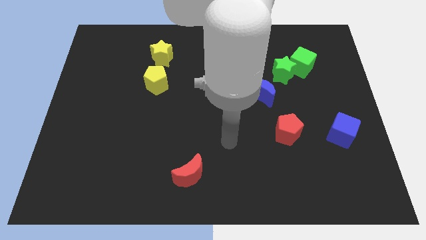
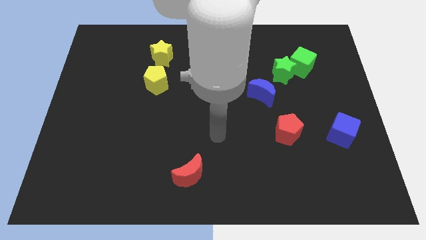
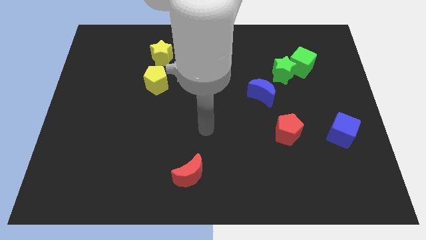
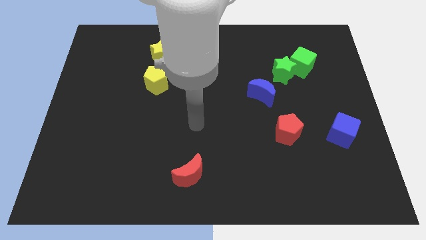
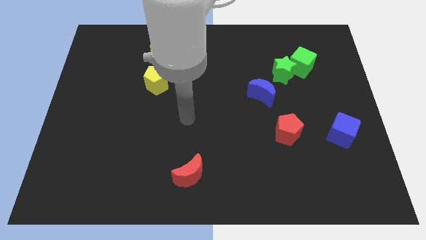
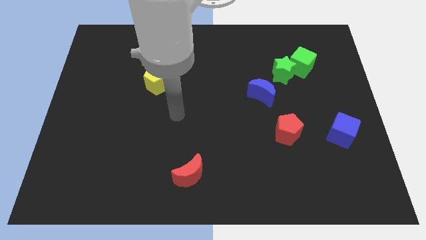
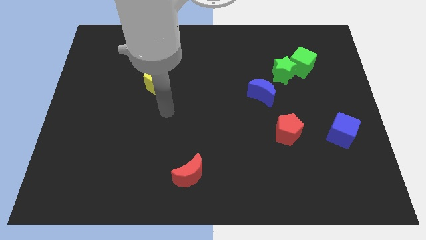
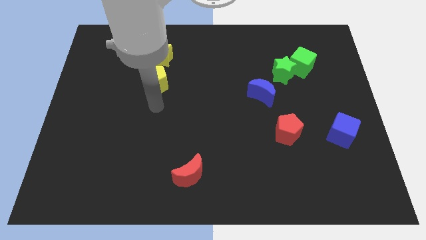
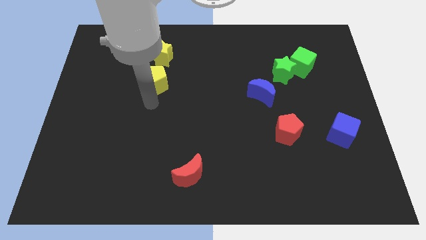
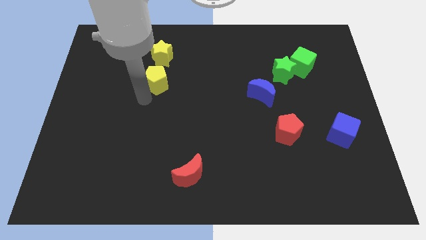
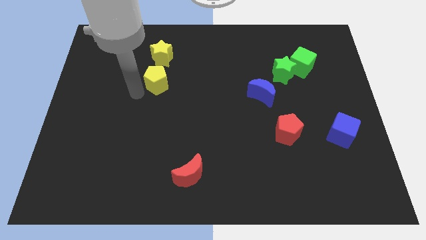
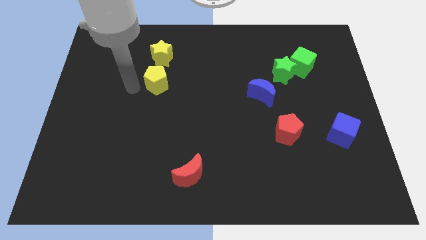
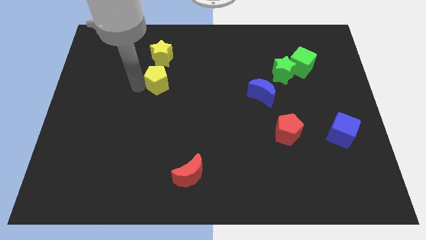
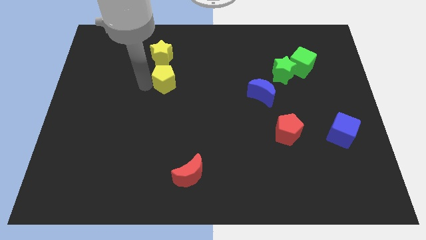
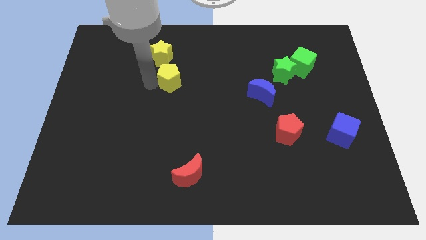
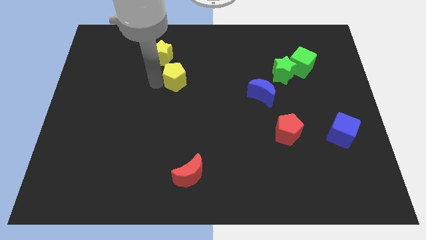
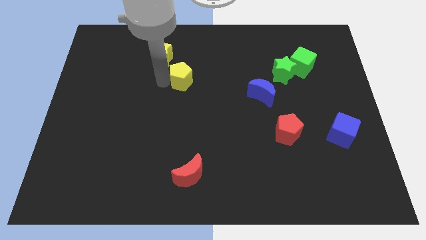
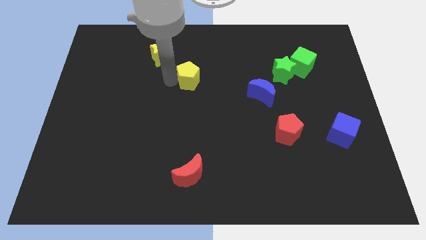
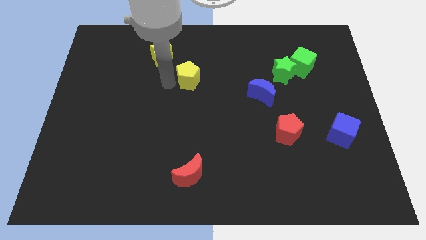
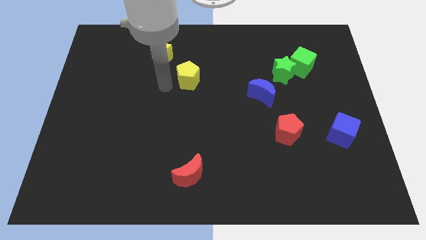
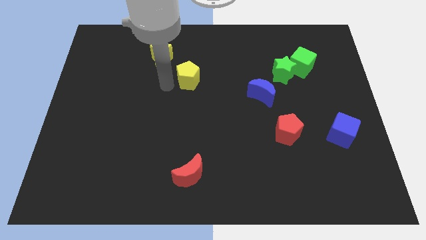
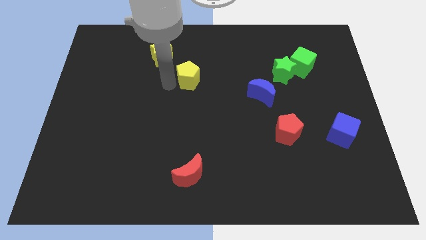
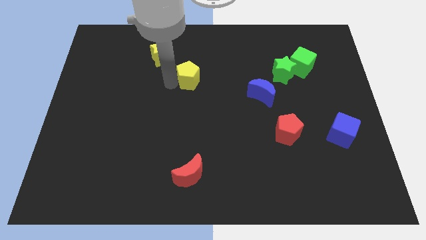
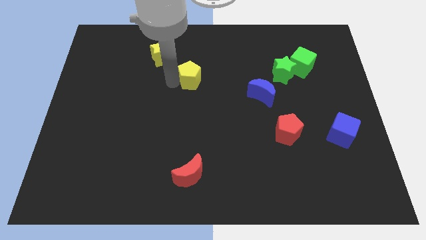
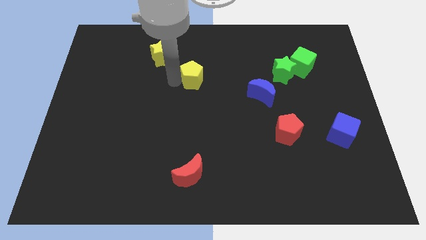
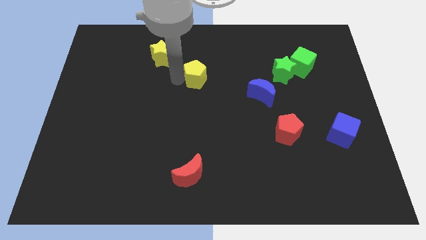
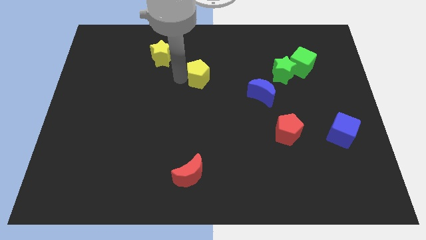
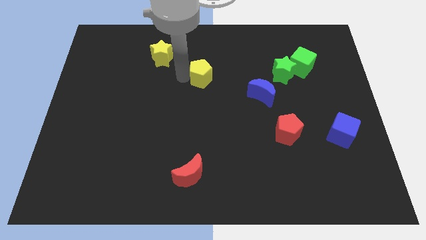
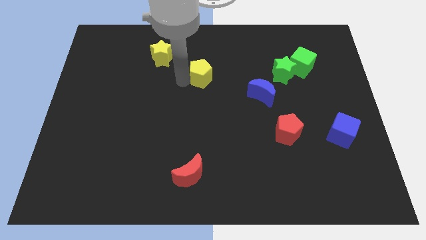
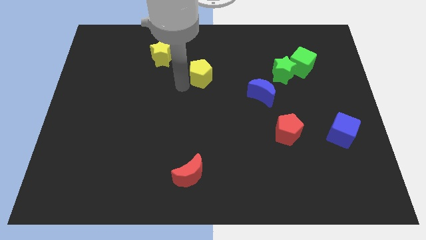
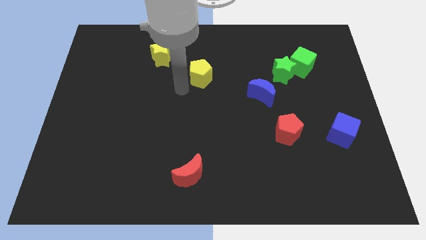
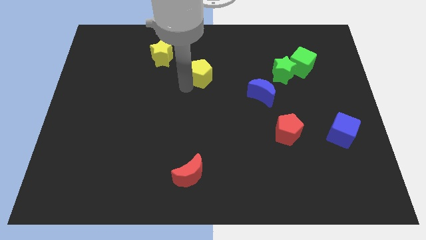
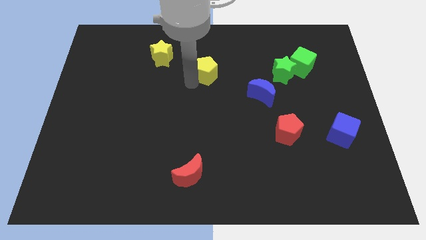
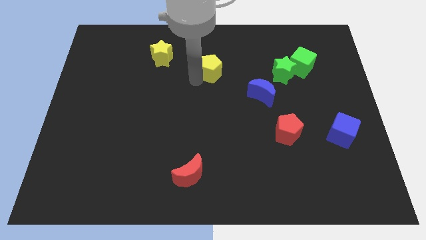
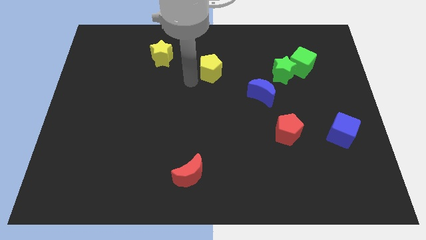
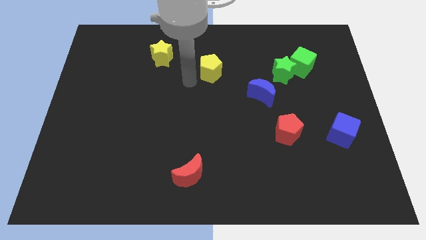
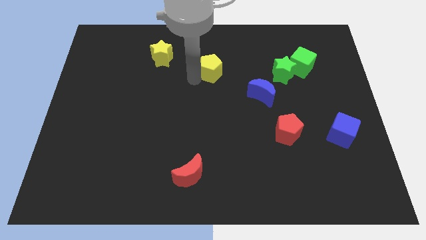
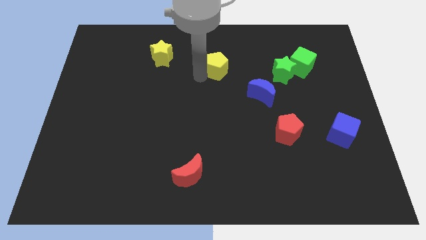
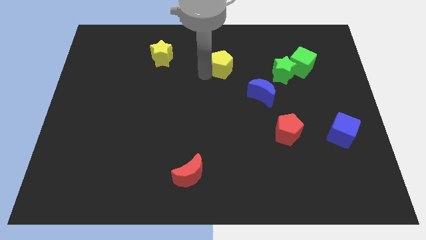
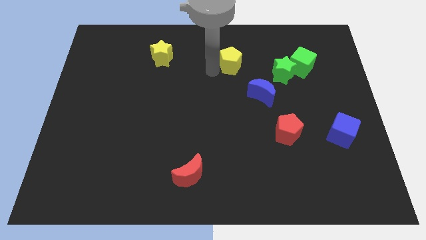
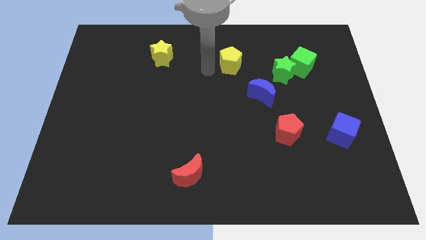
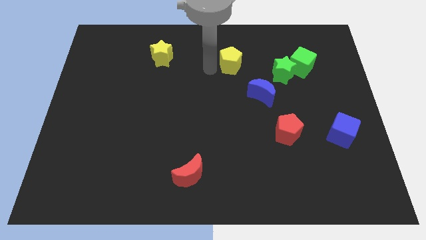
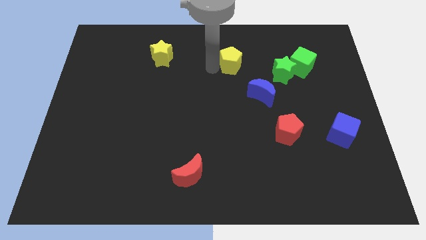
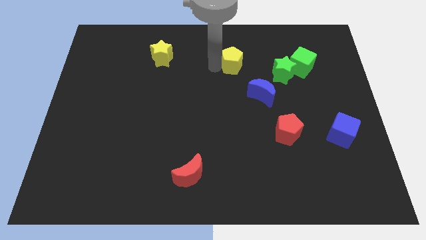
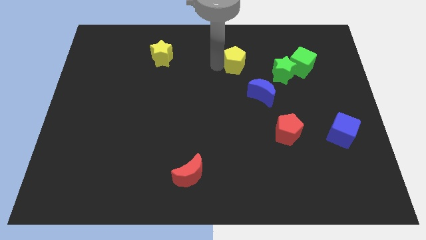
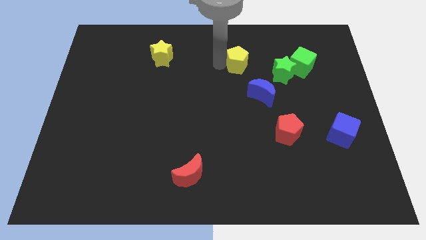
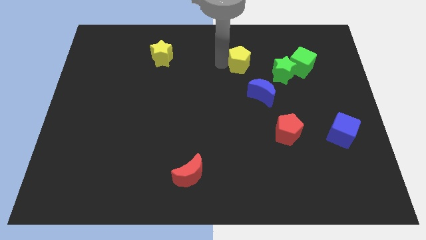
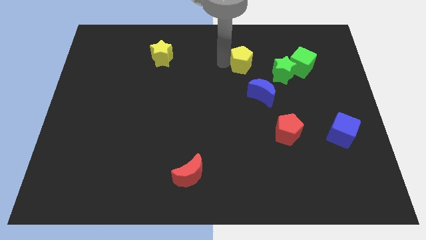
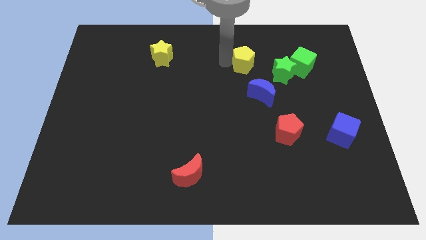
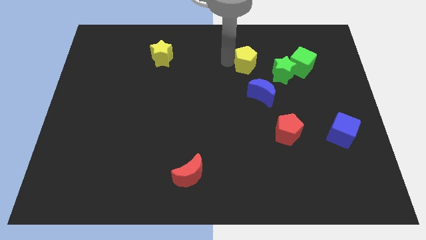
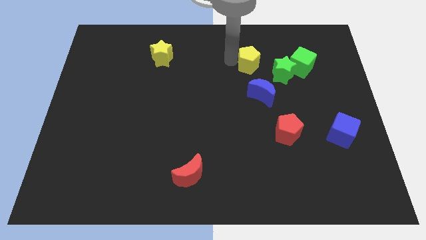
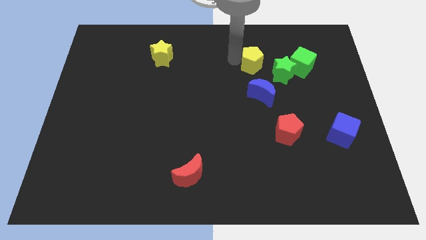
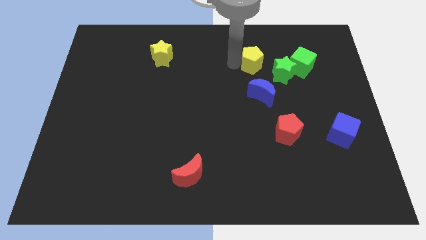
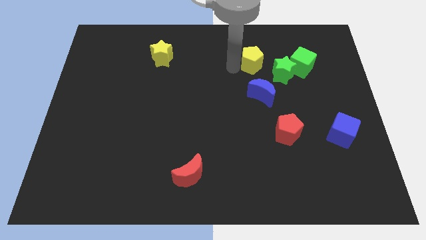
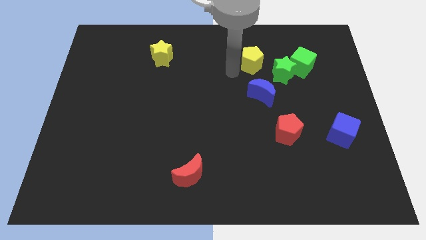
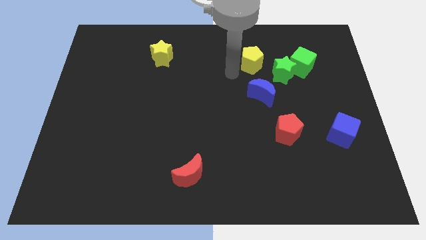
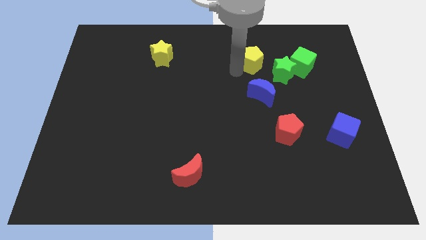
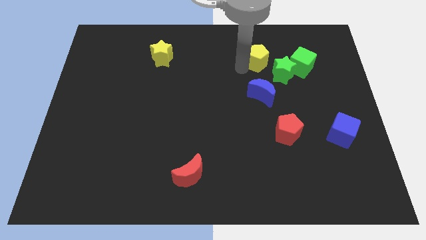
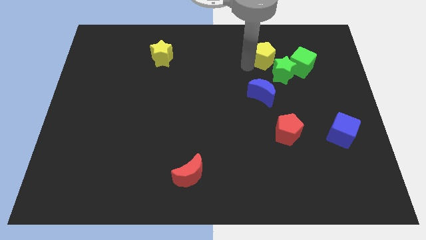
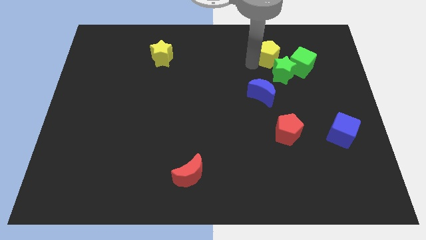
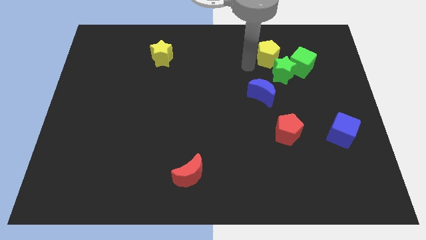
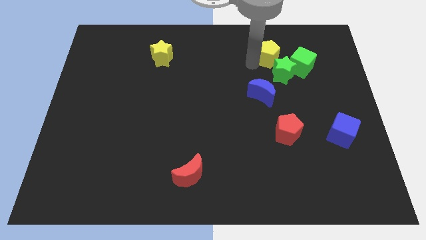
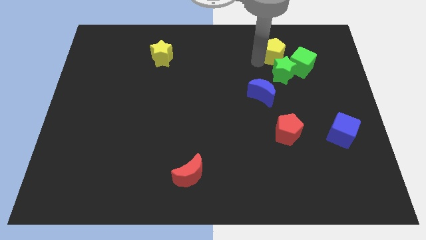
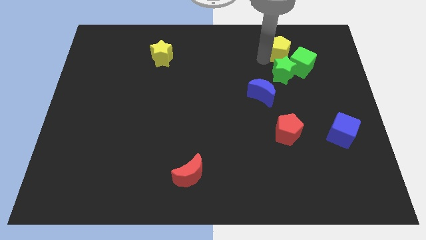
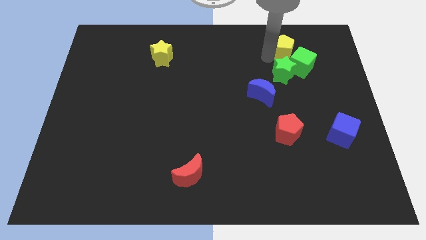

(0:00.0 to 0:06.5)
slide the yellow pentagon diagonally up and to the right of the green star
